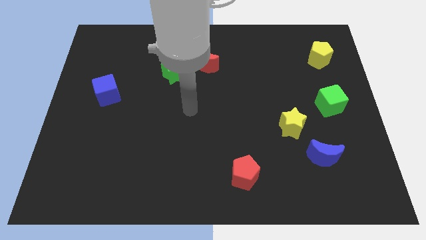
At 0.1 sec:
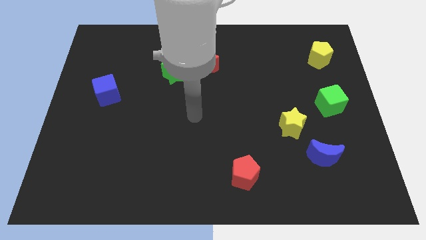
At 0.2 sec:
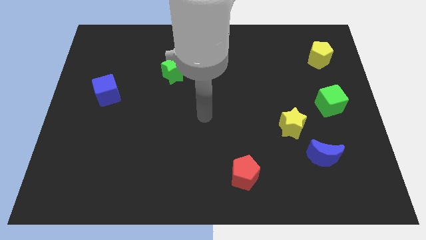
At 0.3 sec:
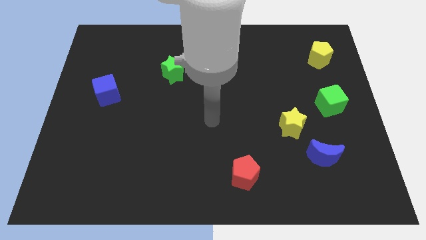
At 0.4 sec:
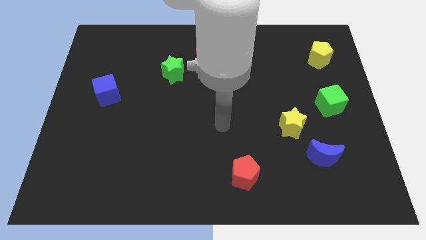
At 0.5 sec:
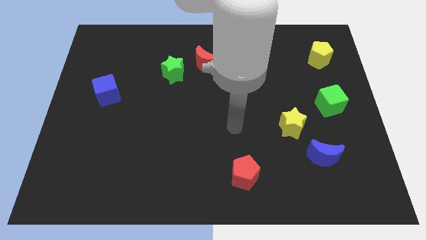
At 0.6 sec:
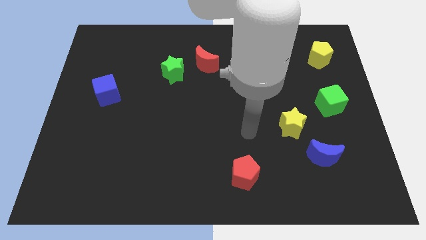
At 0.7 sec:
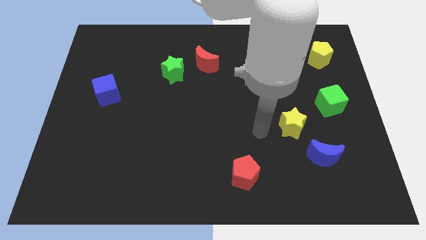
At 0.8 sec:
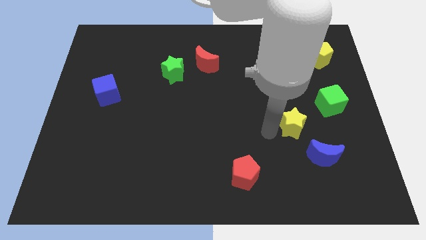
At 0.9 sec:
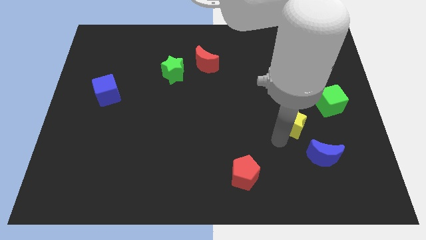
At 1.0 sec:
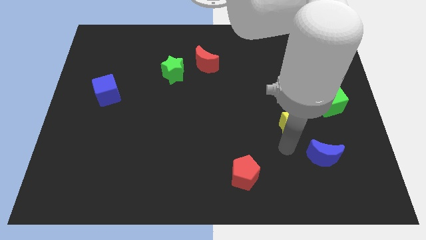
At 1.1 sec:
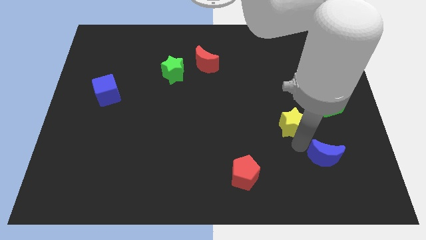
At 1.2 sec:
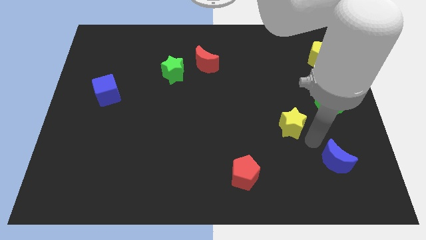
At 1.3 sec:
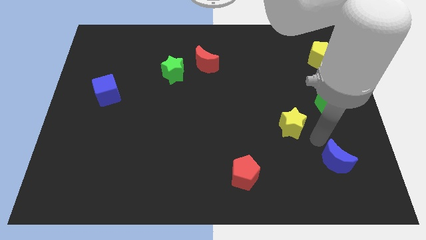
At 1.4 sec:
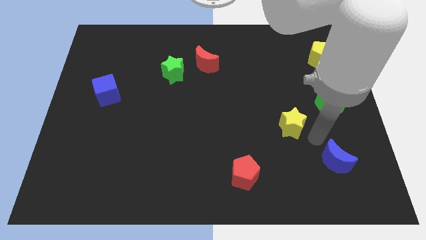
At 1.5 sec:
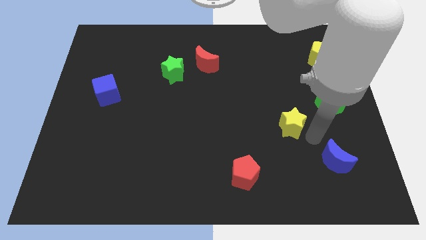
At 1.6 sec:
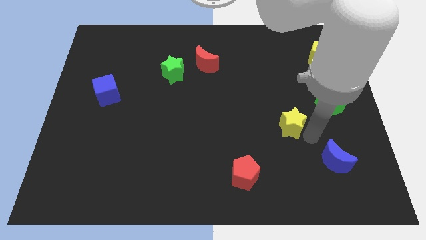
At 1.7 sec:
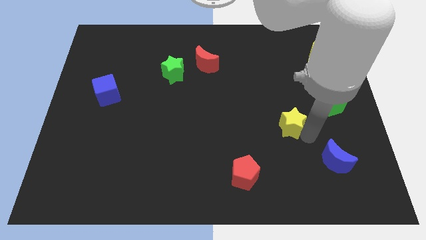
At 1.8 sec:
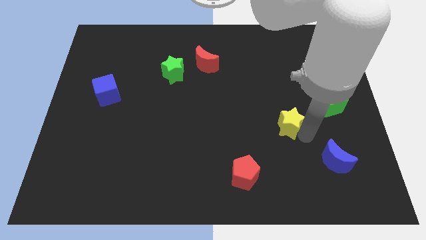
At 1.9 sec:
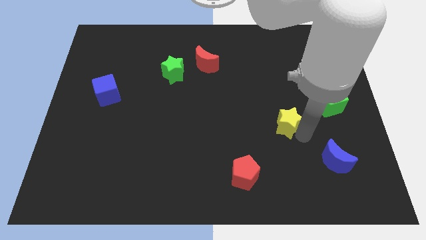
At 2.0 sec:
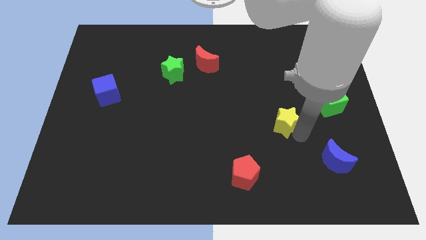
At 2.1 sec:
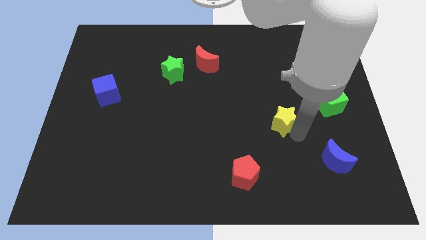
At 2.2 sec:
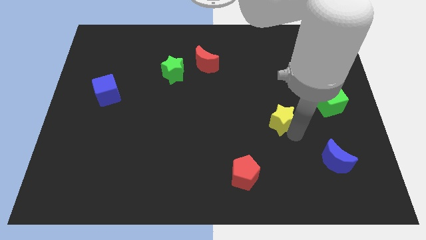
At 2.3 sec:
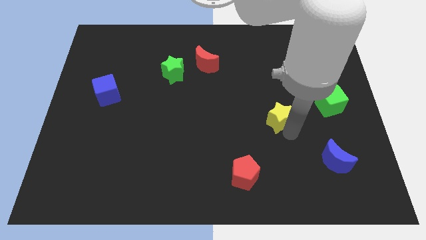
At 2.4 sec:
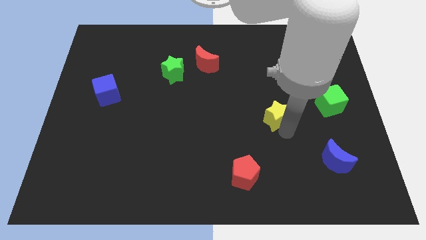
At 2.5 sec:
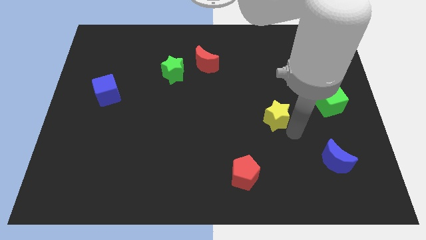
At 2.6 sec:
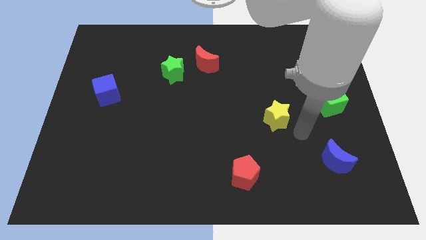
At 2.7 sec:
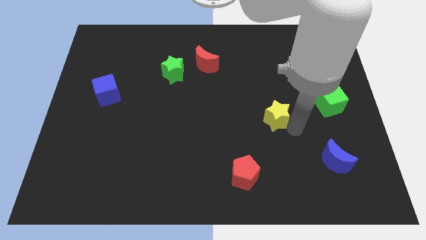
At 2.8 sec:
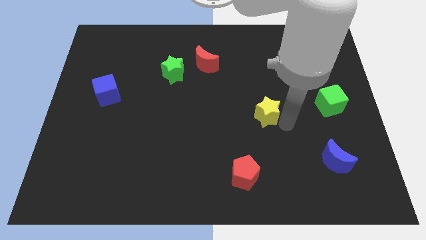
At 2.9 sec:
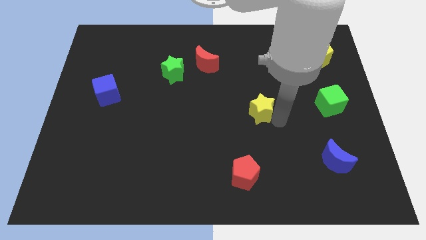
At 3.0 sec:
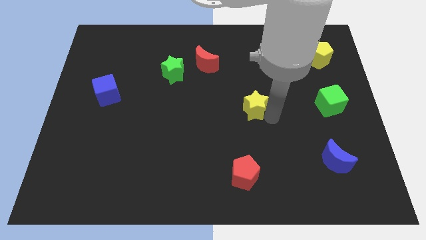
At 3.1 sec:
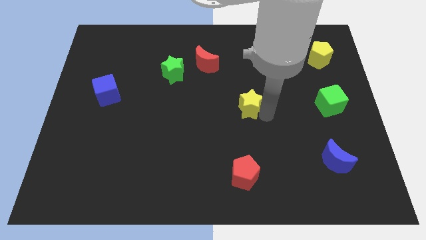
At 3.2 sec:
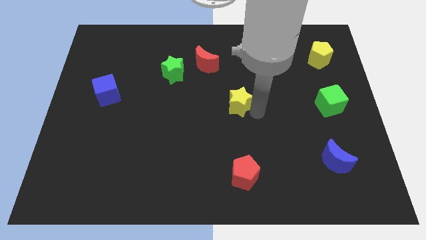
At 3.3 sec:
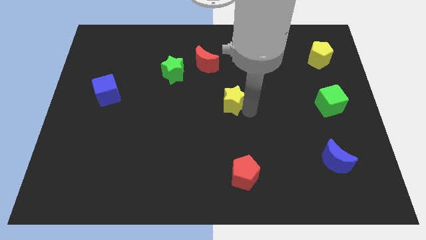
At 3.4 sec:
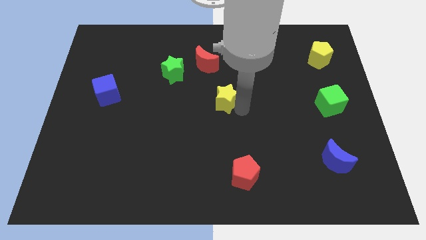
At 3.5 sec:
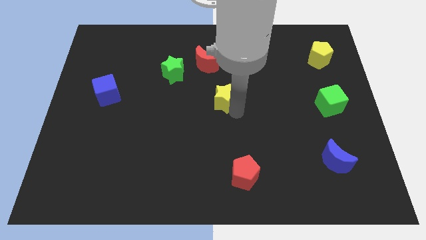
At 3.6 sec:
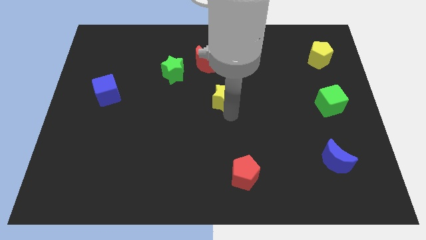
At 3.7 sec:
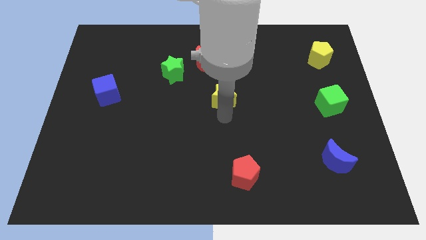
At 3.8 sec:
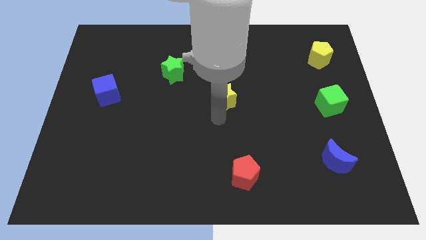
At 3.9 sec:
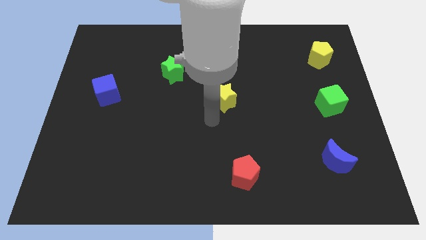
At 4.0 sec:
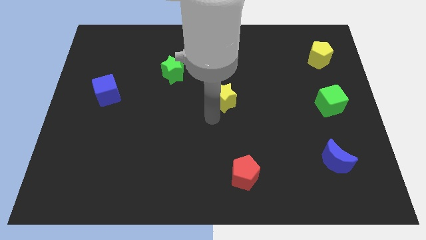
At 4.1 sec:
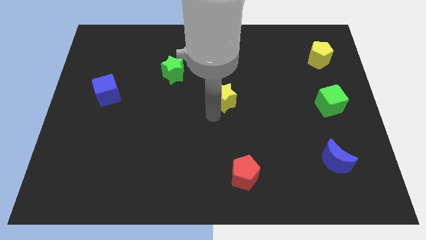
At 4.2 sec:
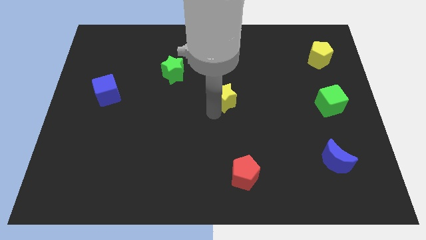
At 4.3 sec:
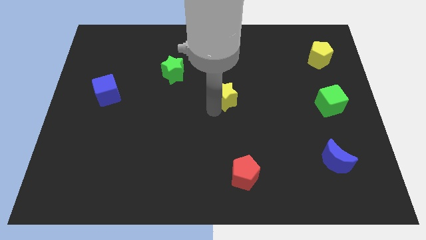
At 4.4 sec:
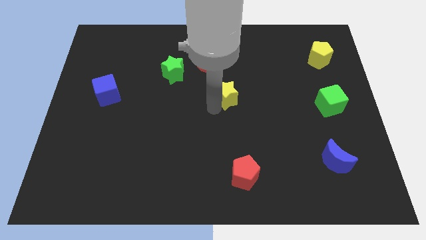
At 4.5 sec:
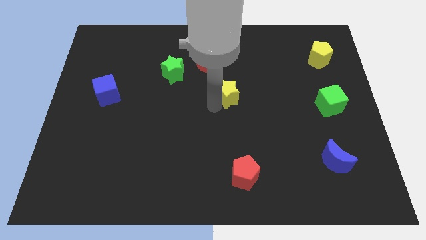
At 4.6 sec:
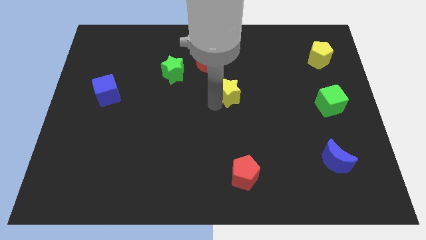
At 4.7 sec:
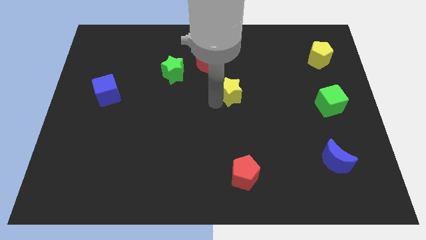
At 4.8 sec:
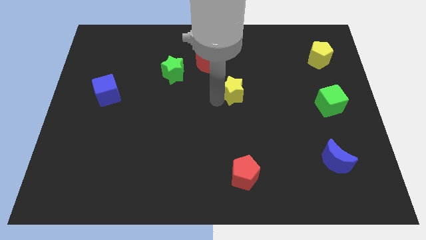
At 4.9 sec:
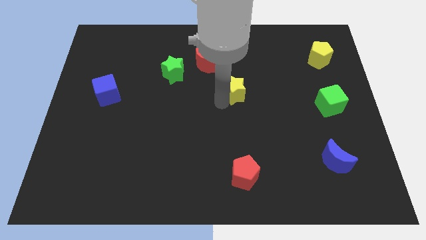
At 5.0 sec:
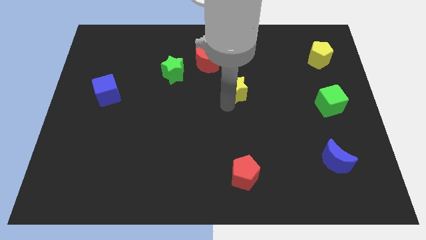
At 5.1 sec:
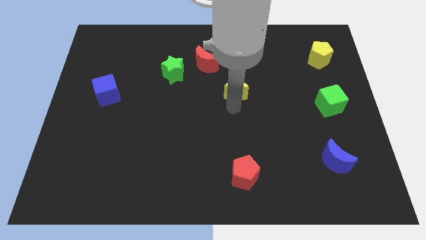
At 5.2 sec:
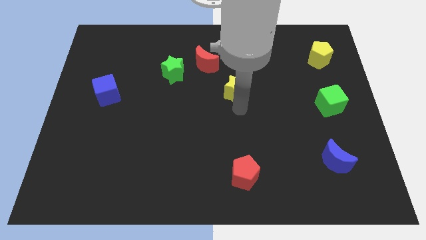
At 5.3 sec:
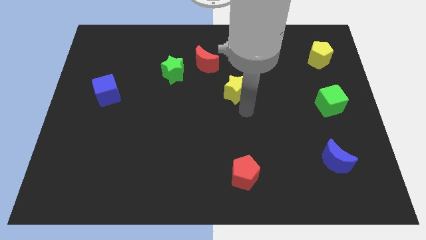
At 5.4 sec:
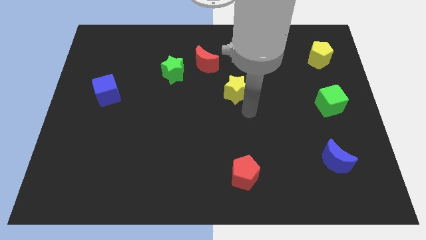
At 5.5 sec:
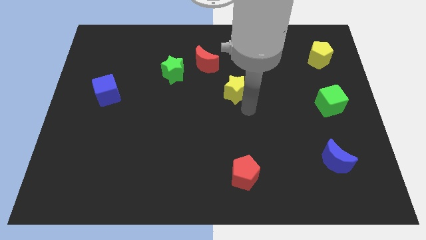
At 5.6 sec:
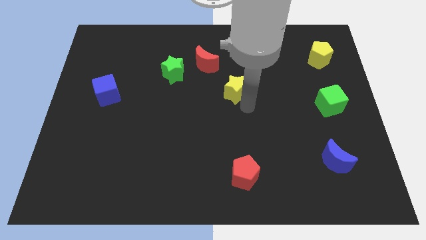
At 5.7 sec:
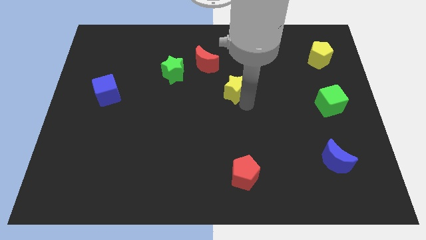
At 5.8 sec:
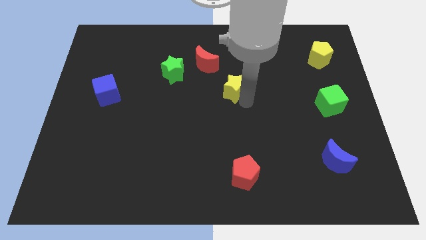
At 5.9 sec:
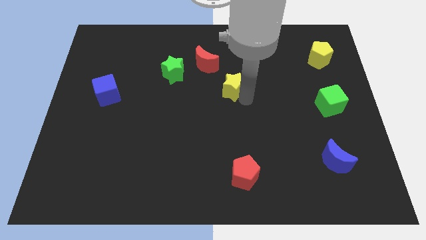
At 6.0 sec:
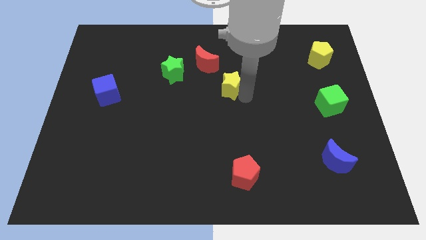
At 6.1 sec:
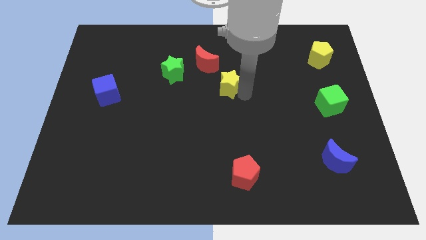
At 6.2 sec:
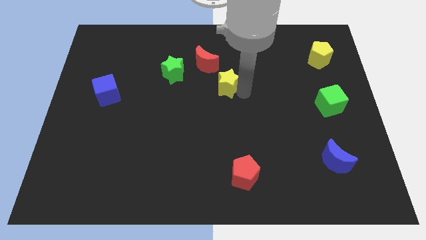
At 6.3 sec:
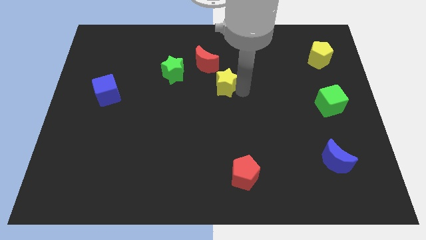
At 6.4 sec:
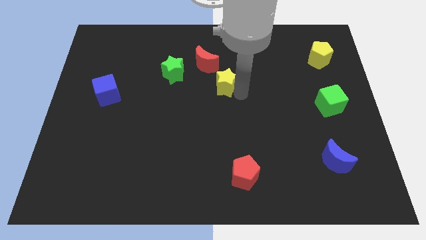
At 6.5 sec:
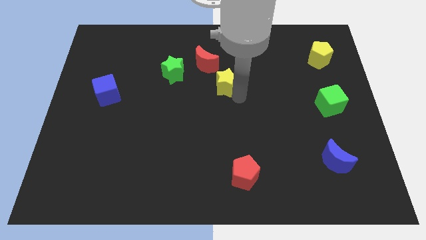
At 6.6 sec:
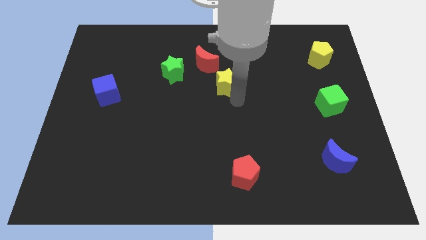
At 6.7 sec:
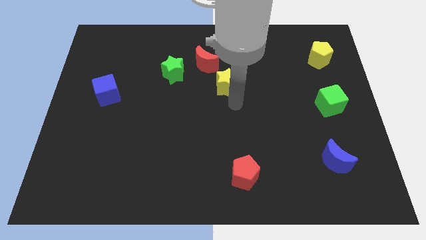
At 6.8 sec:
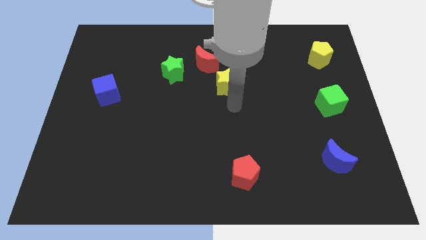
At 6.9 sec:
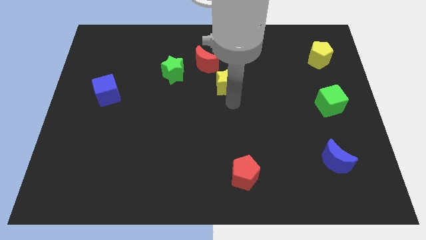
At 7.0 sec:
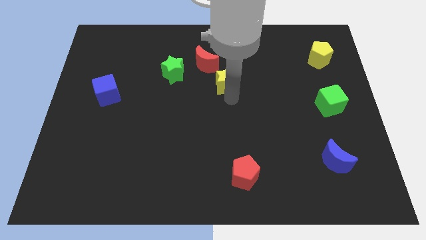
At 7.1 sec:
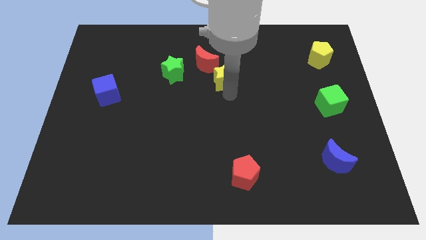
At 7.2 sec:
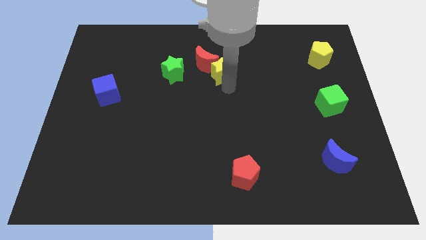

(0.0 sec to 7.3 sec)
slide the yellow star next to the red moon
